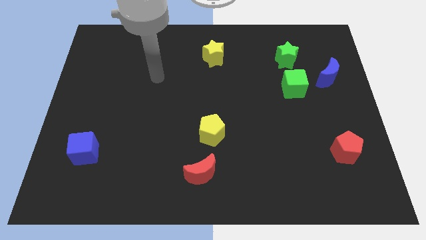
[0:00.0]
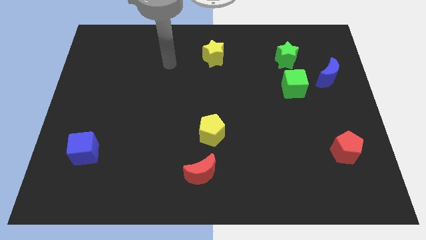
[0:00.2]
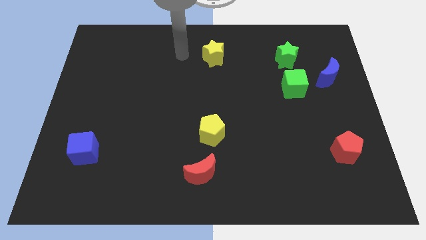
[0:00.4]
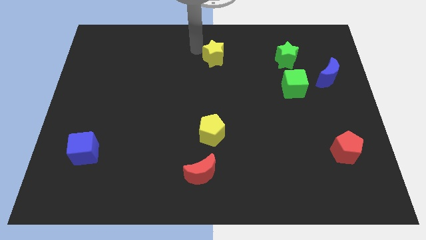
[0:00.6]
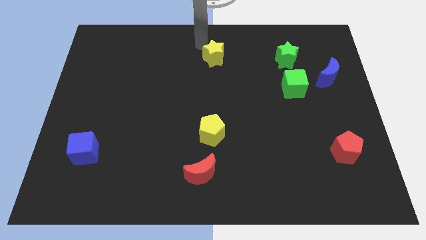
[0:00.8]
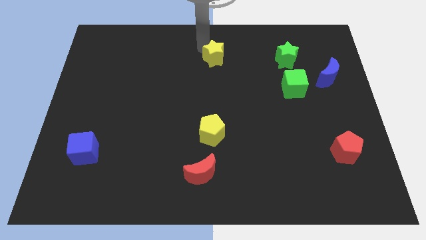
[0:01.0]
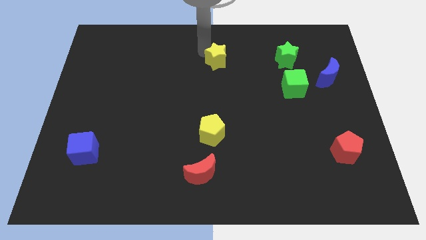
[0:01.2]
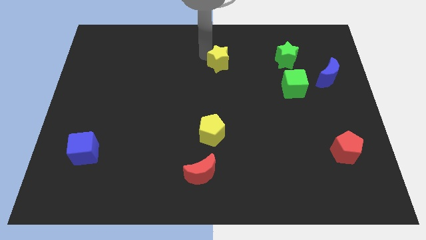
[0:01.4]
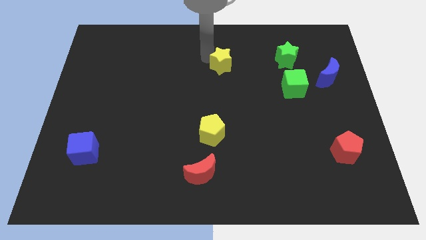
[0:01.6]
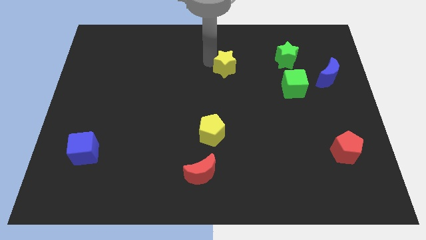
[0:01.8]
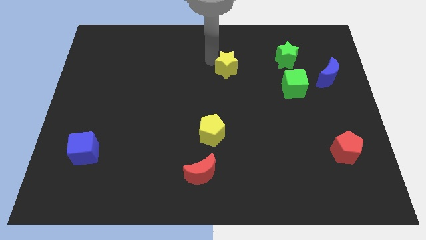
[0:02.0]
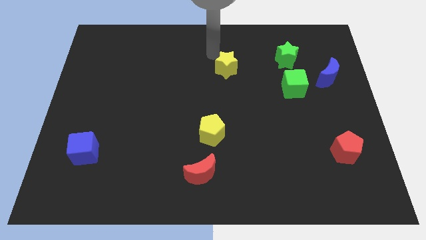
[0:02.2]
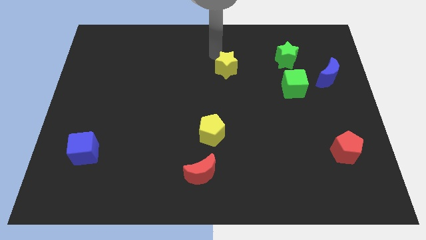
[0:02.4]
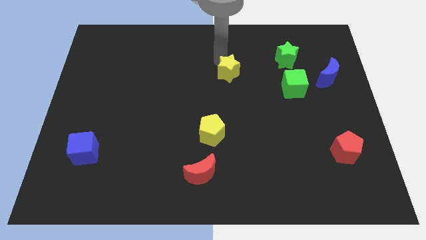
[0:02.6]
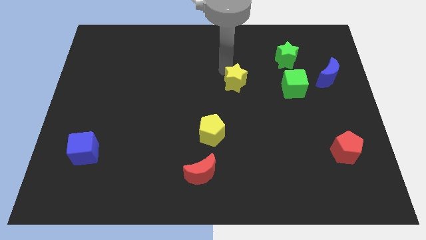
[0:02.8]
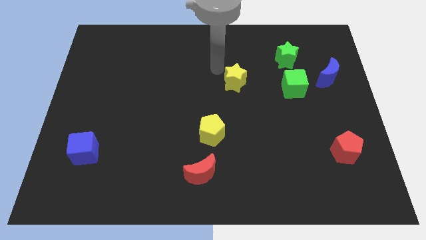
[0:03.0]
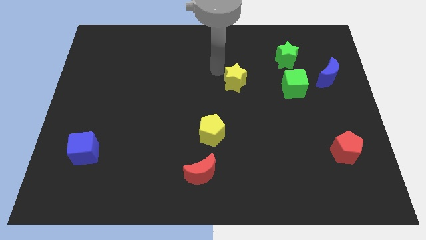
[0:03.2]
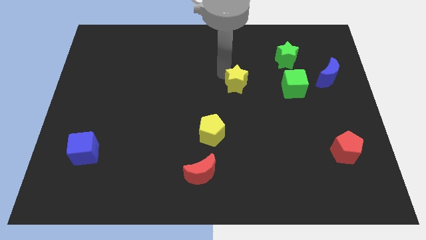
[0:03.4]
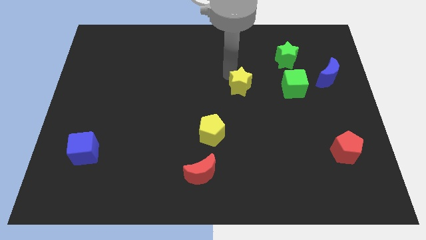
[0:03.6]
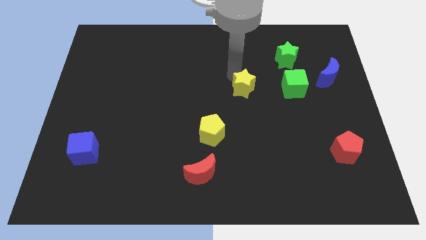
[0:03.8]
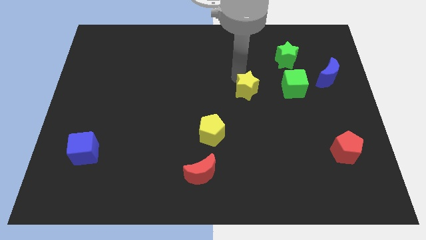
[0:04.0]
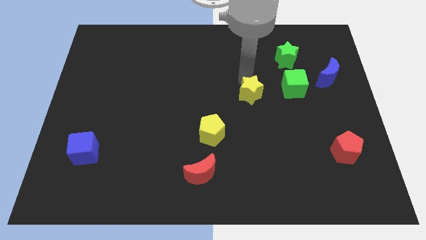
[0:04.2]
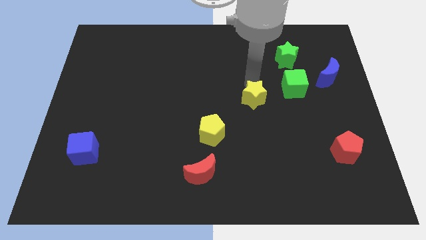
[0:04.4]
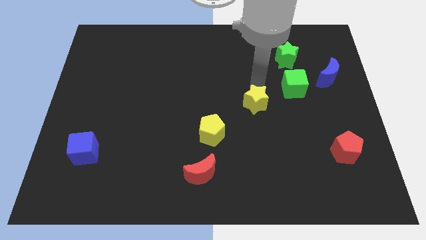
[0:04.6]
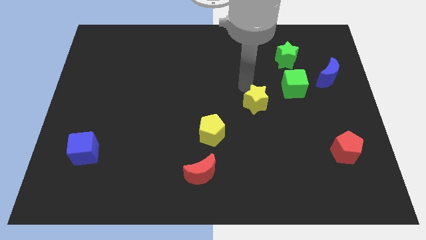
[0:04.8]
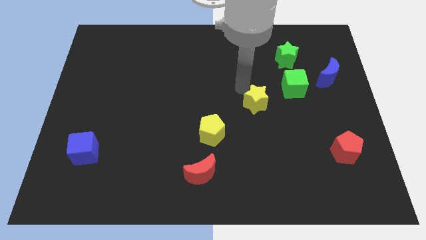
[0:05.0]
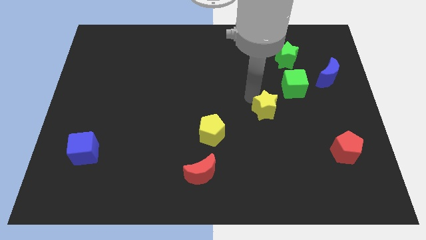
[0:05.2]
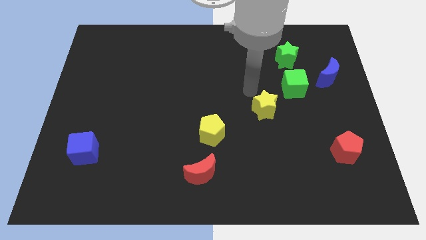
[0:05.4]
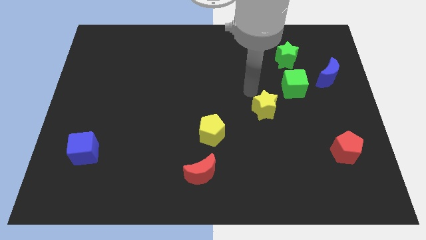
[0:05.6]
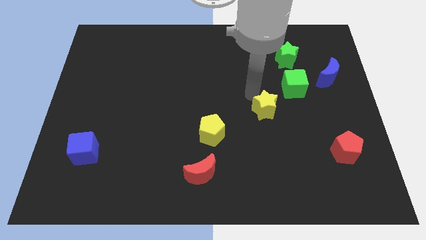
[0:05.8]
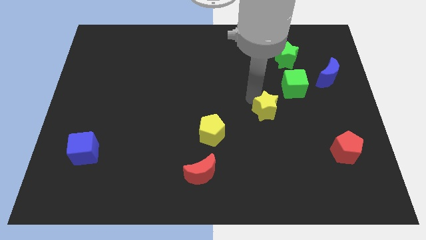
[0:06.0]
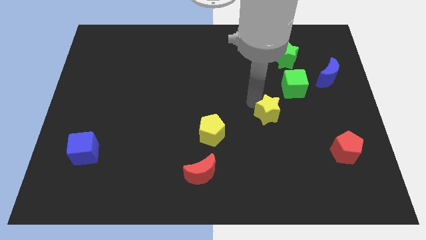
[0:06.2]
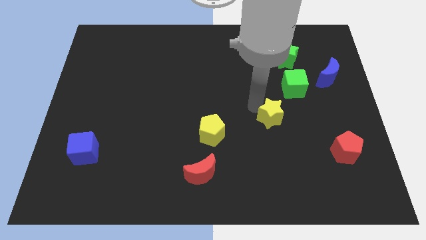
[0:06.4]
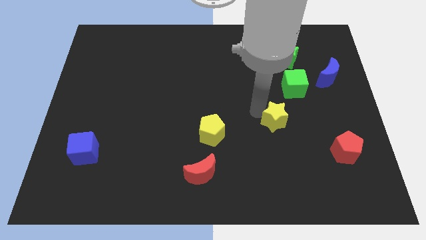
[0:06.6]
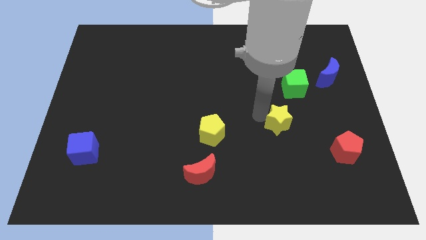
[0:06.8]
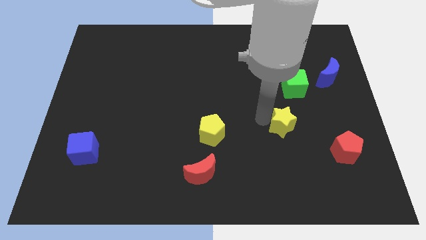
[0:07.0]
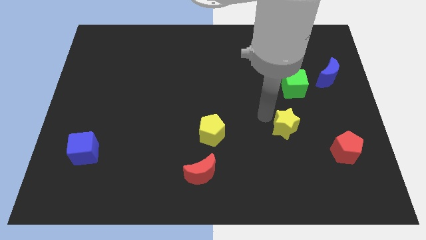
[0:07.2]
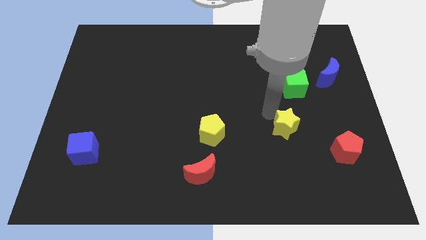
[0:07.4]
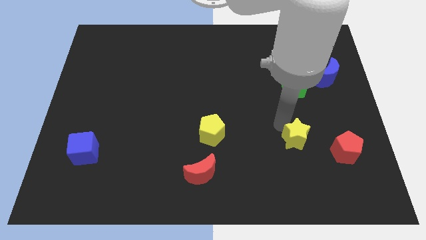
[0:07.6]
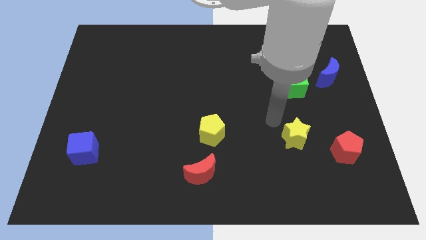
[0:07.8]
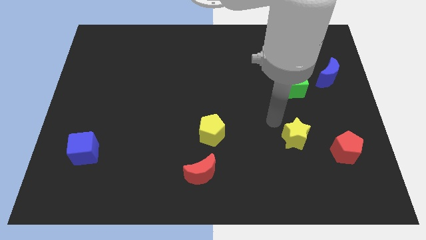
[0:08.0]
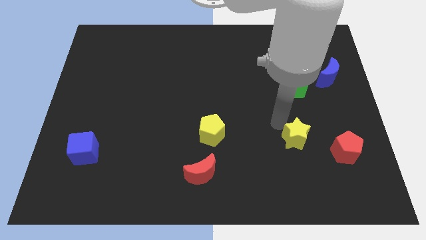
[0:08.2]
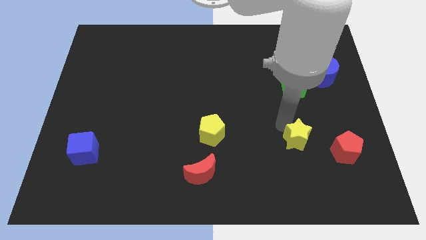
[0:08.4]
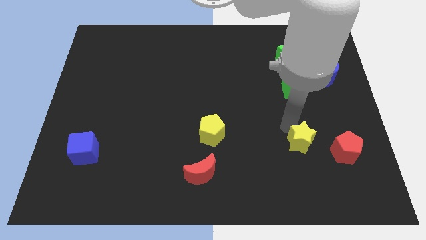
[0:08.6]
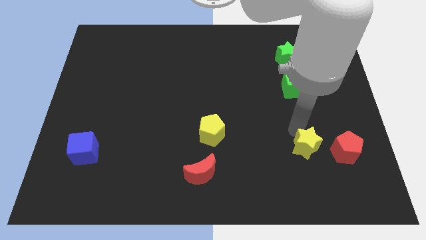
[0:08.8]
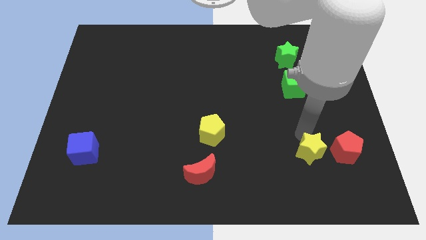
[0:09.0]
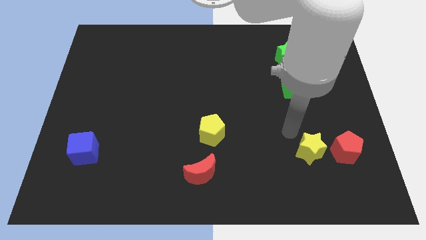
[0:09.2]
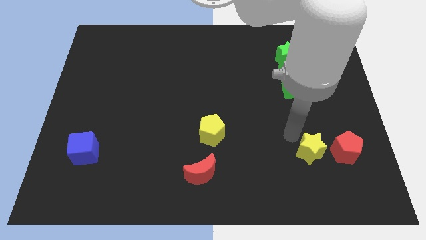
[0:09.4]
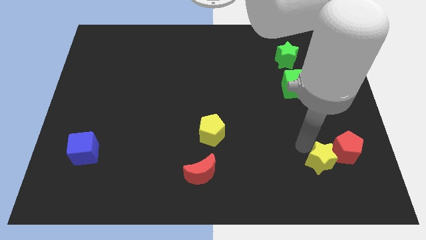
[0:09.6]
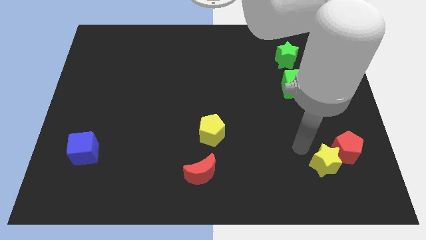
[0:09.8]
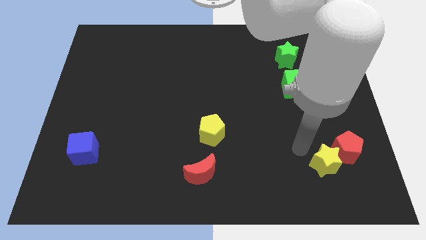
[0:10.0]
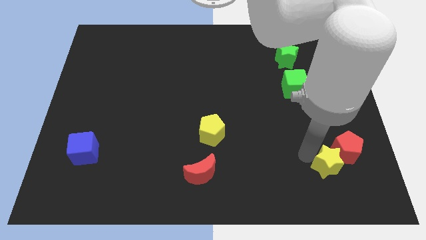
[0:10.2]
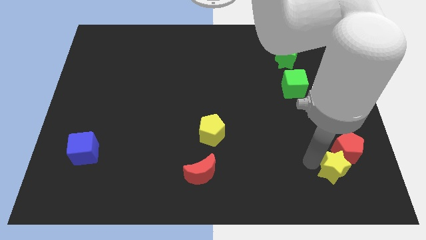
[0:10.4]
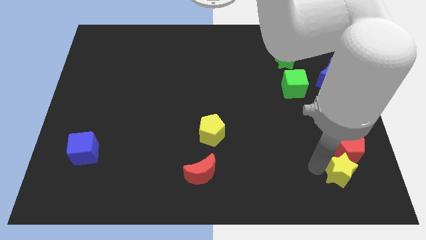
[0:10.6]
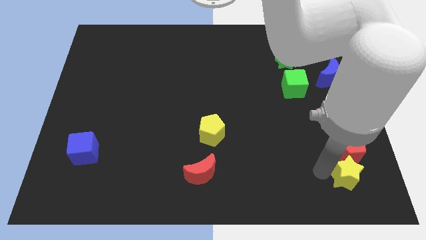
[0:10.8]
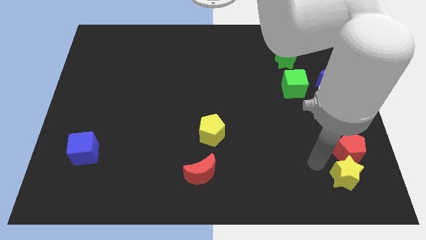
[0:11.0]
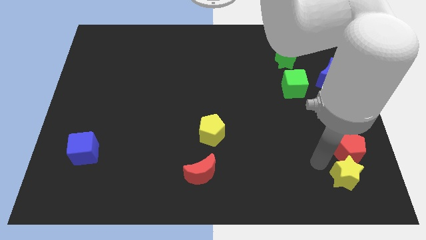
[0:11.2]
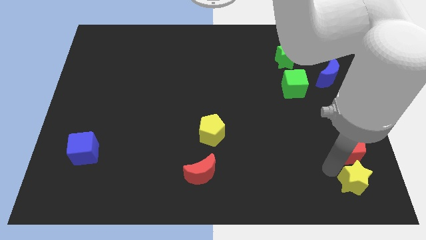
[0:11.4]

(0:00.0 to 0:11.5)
push the yellow star to the bottom right of the board

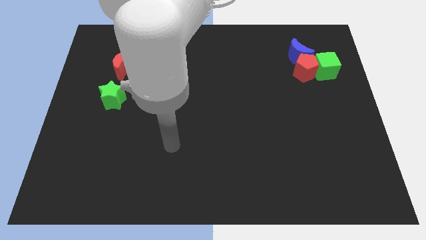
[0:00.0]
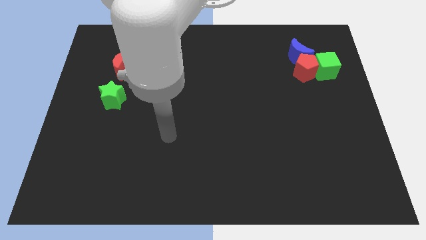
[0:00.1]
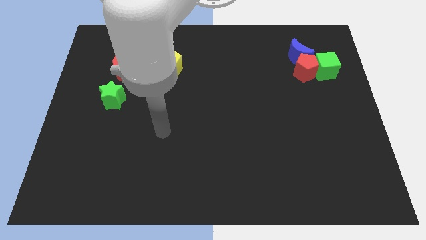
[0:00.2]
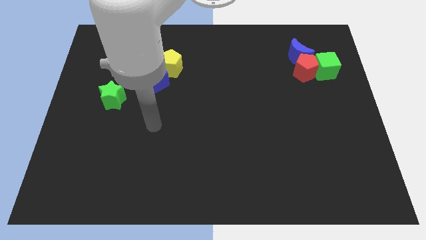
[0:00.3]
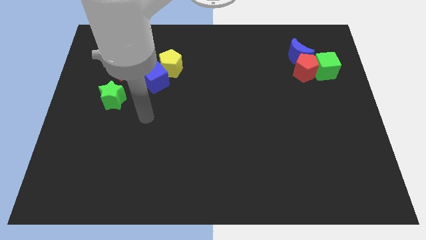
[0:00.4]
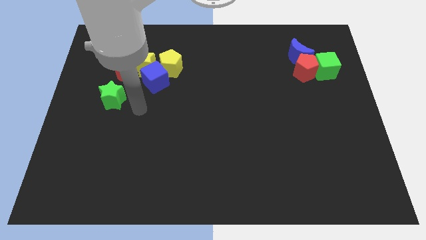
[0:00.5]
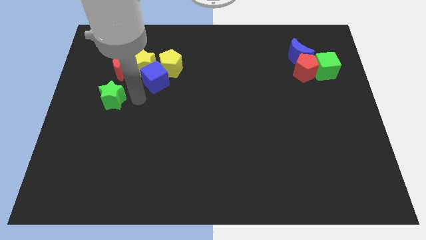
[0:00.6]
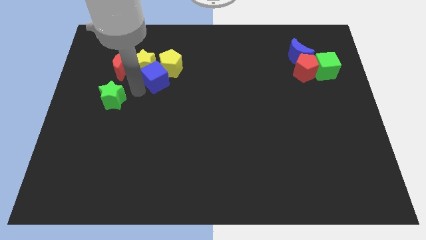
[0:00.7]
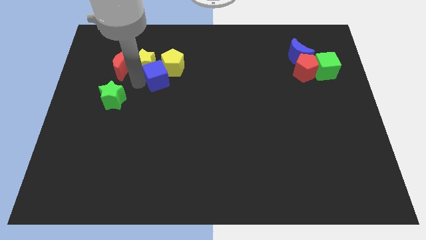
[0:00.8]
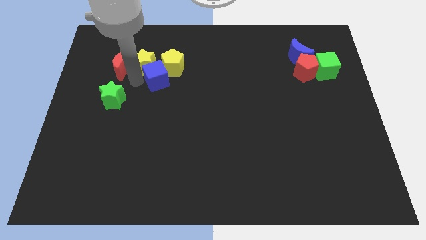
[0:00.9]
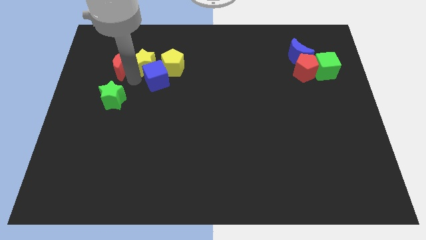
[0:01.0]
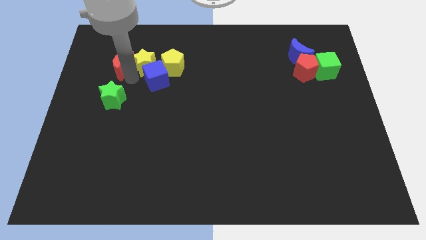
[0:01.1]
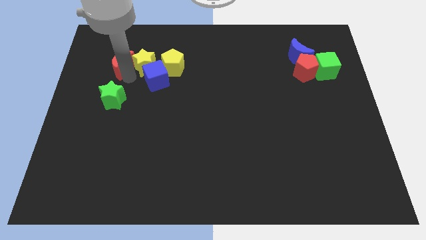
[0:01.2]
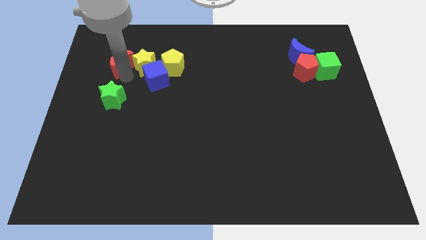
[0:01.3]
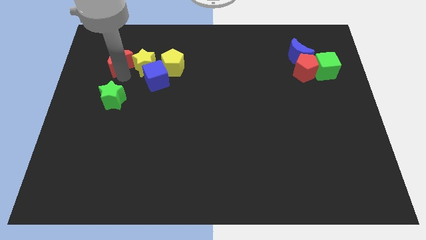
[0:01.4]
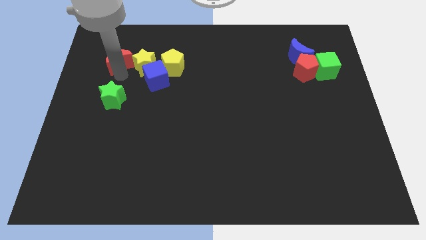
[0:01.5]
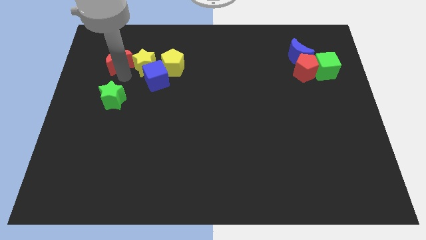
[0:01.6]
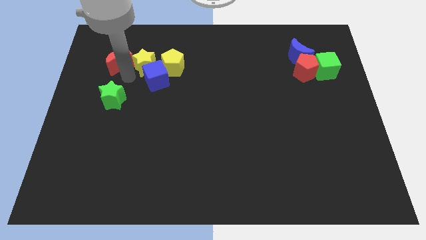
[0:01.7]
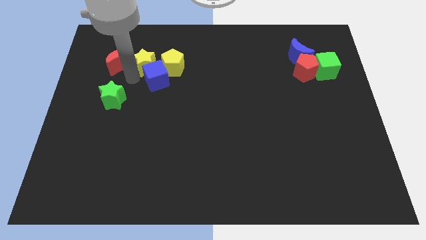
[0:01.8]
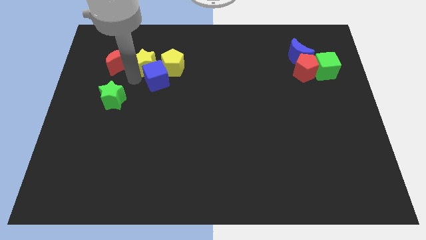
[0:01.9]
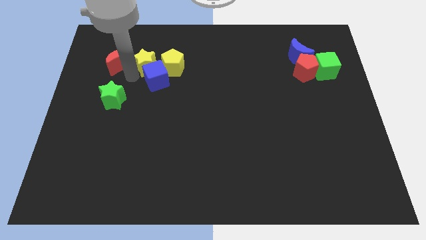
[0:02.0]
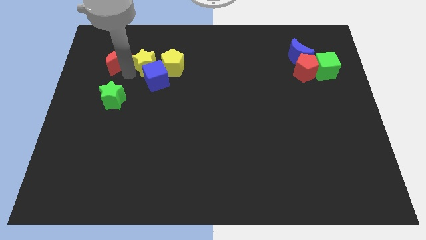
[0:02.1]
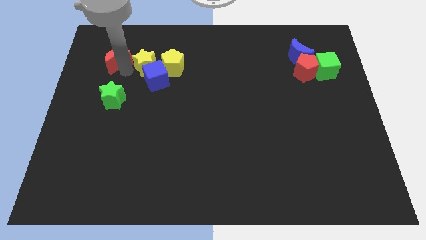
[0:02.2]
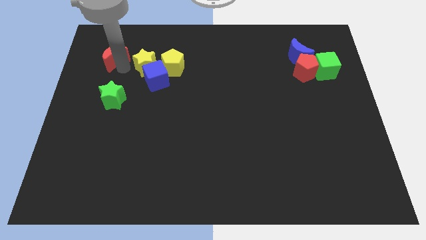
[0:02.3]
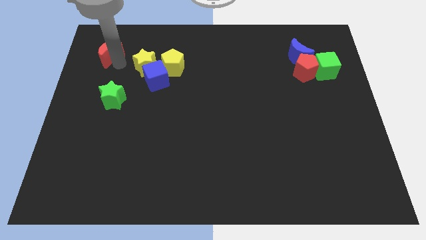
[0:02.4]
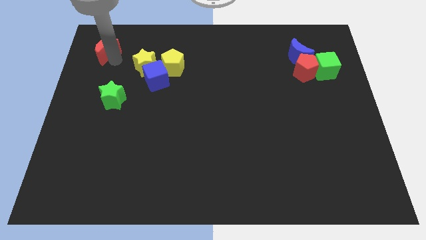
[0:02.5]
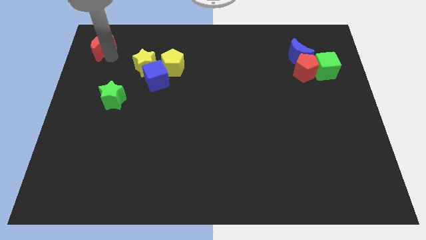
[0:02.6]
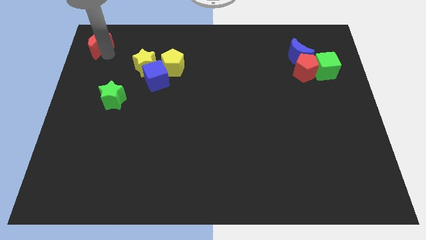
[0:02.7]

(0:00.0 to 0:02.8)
push the red moon to the top left corner
